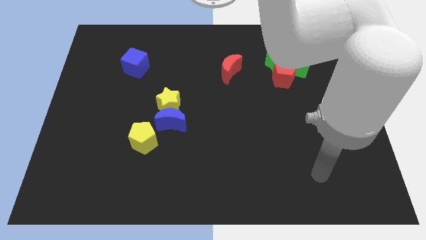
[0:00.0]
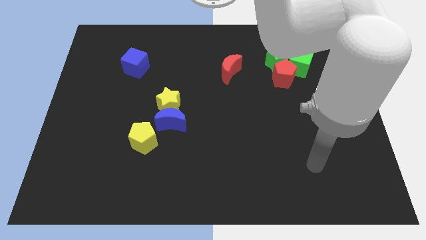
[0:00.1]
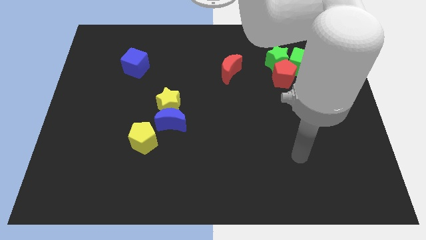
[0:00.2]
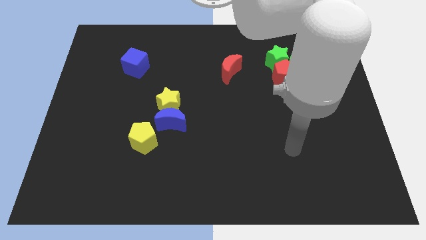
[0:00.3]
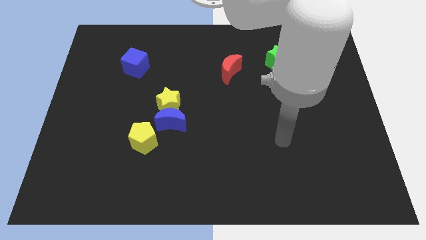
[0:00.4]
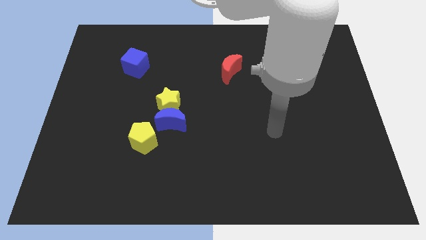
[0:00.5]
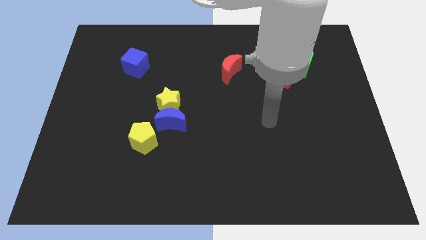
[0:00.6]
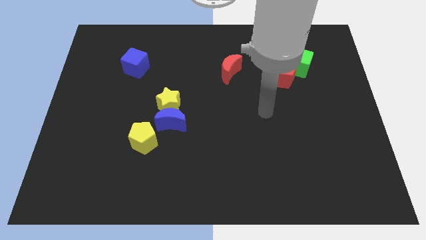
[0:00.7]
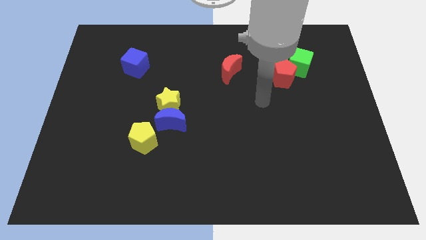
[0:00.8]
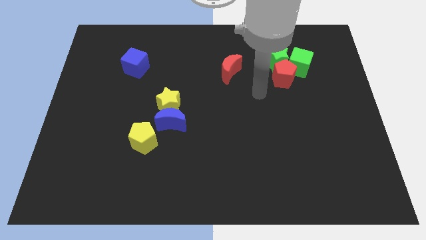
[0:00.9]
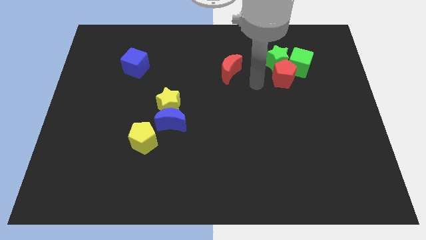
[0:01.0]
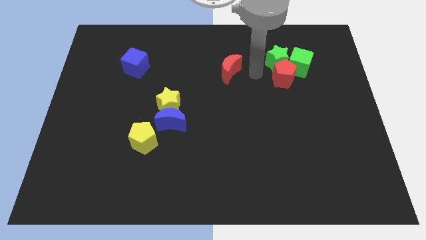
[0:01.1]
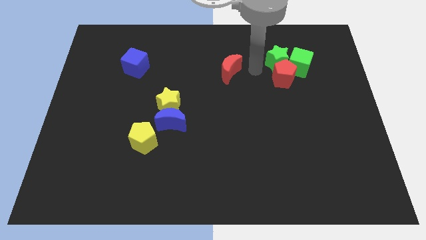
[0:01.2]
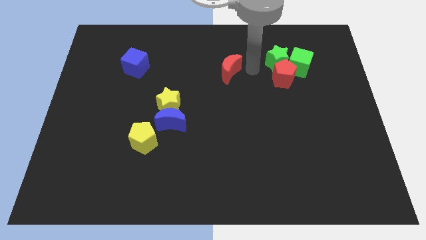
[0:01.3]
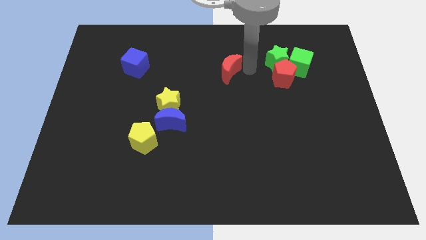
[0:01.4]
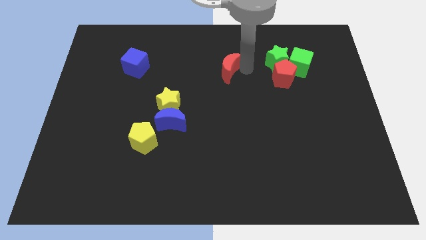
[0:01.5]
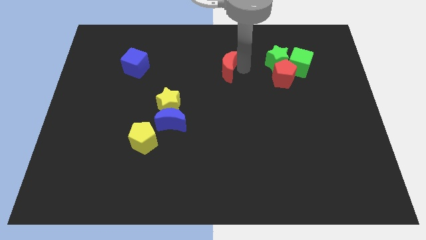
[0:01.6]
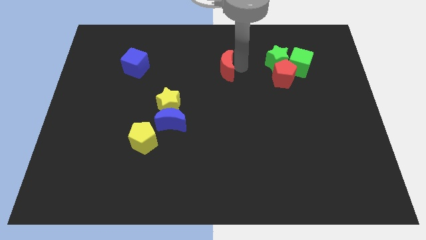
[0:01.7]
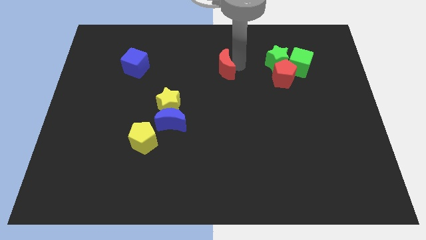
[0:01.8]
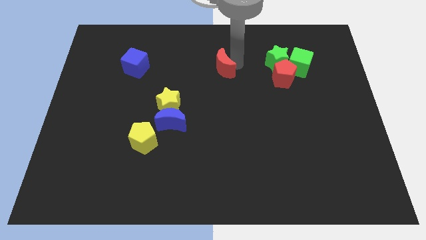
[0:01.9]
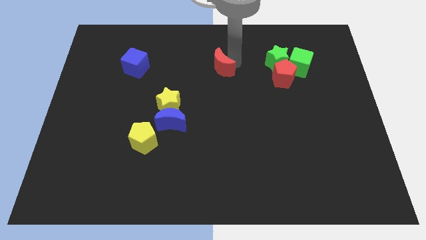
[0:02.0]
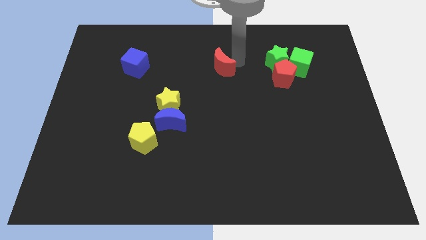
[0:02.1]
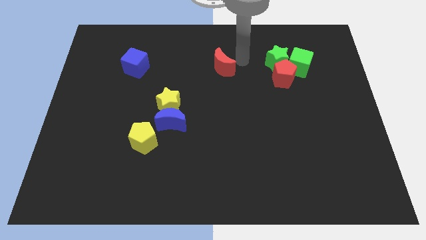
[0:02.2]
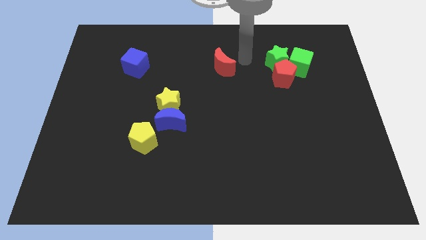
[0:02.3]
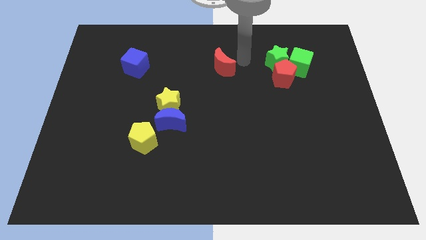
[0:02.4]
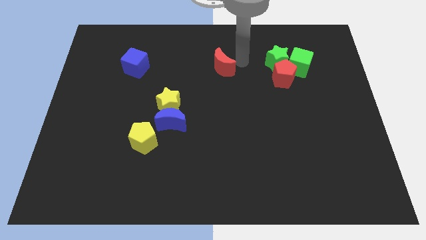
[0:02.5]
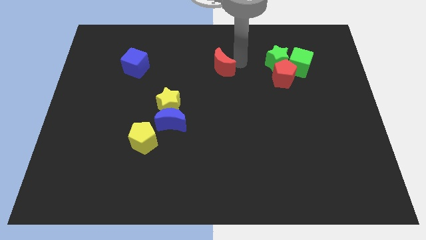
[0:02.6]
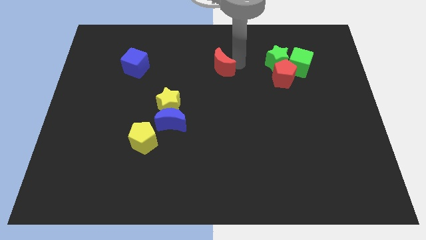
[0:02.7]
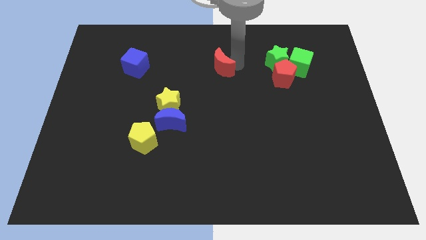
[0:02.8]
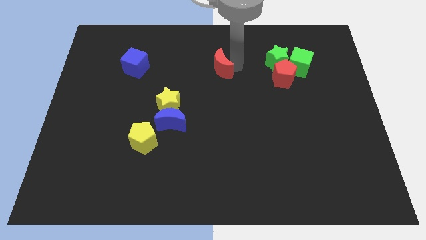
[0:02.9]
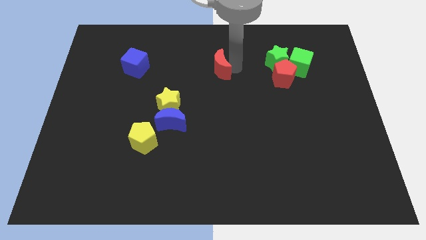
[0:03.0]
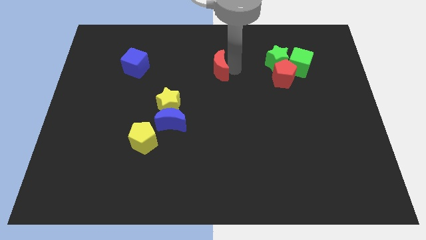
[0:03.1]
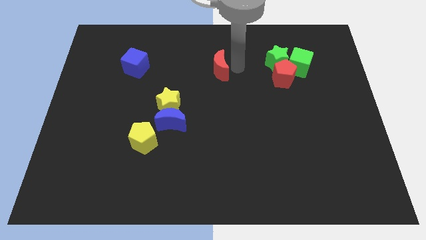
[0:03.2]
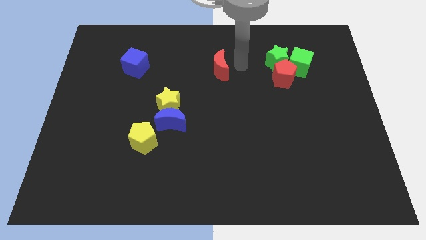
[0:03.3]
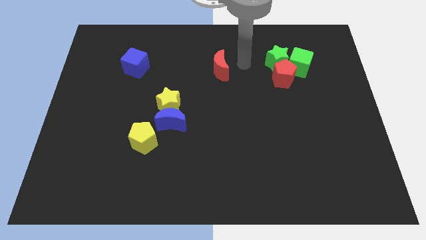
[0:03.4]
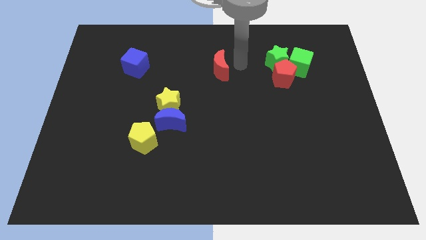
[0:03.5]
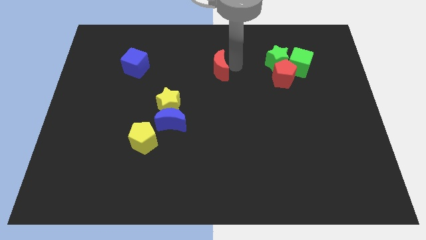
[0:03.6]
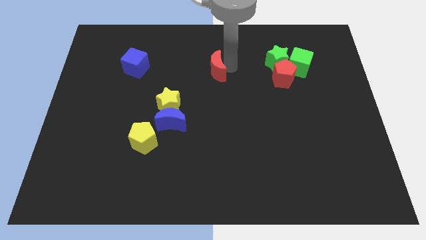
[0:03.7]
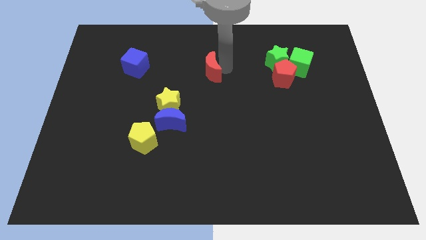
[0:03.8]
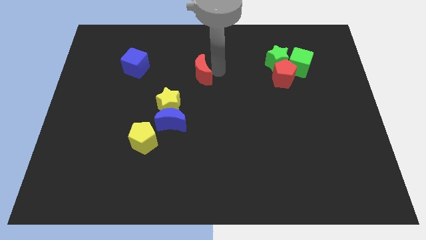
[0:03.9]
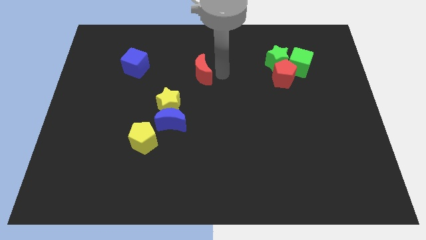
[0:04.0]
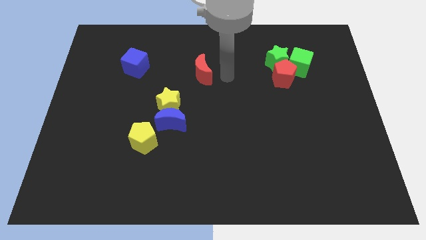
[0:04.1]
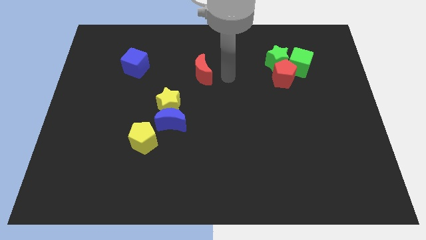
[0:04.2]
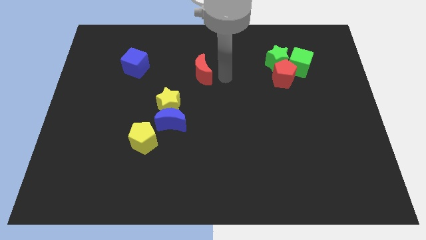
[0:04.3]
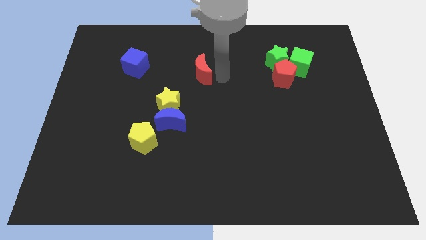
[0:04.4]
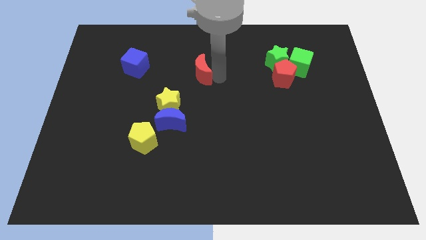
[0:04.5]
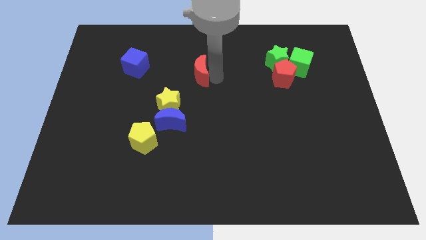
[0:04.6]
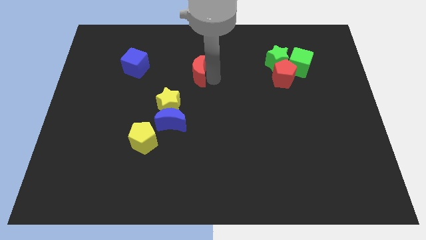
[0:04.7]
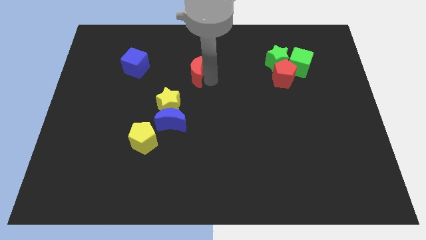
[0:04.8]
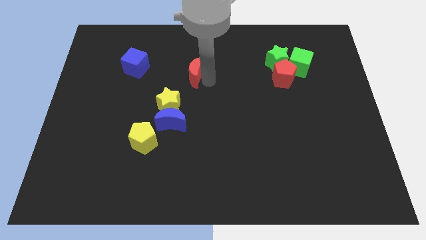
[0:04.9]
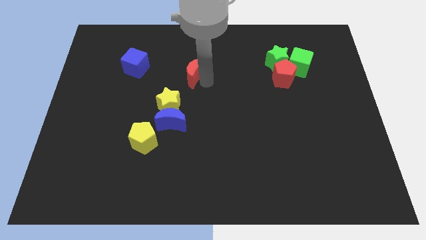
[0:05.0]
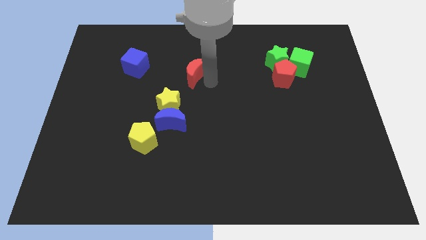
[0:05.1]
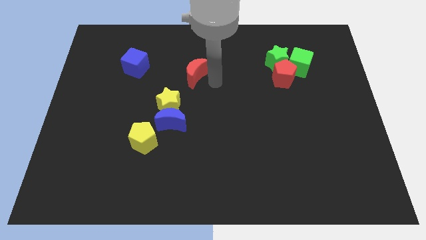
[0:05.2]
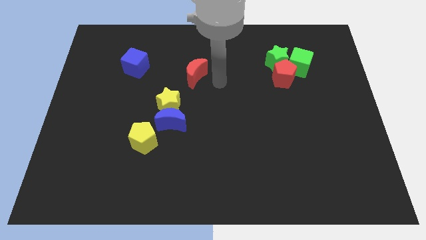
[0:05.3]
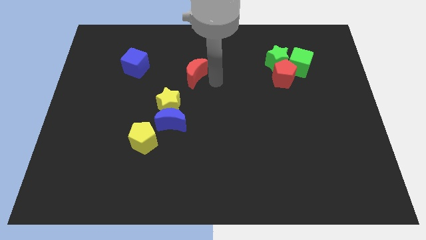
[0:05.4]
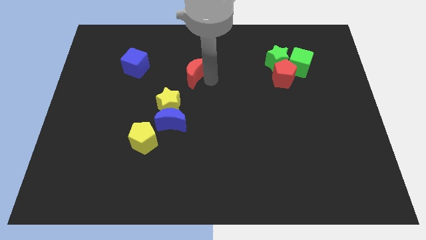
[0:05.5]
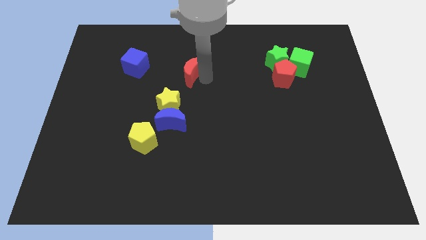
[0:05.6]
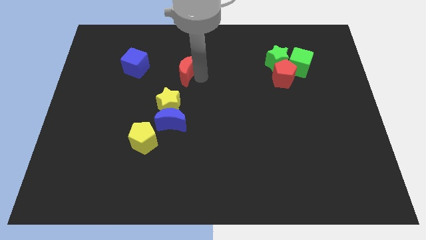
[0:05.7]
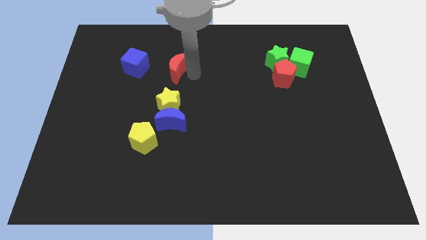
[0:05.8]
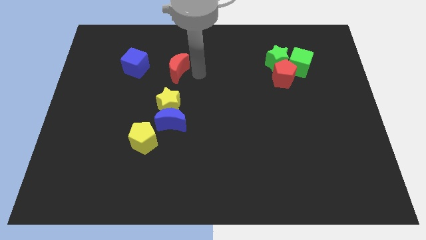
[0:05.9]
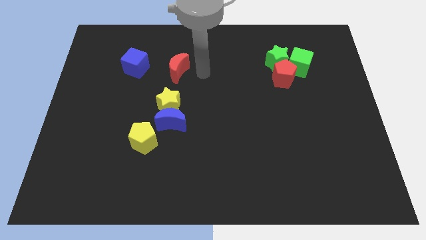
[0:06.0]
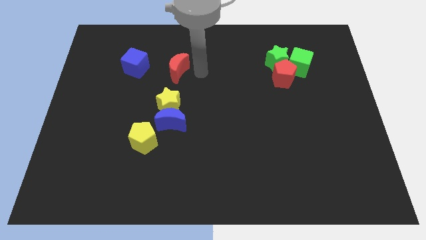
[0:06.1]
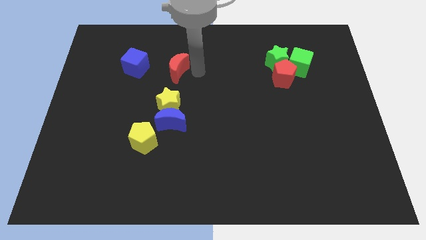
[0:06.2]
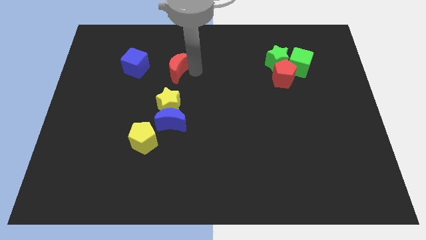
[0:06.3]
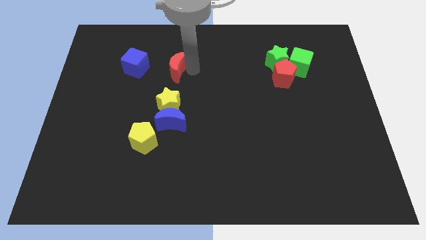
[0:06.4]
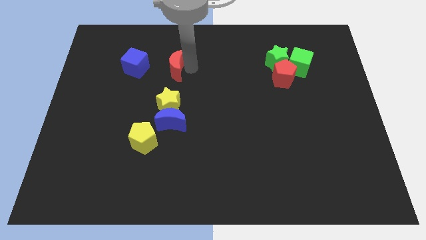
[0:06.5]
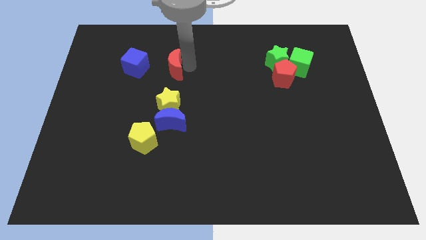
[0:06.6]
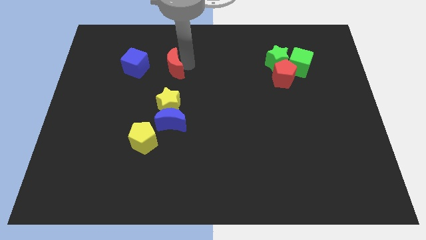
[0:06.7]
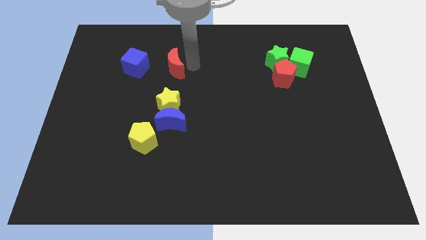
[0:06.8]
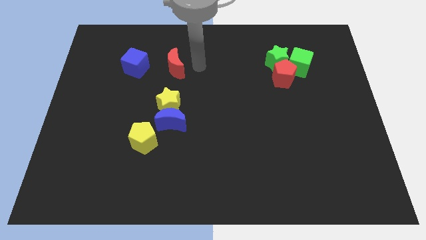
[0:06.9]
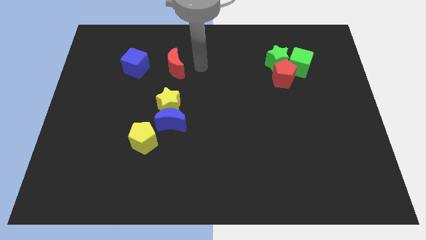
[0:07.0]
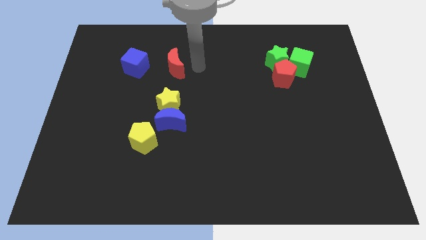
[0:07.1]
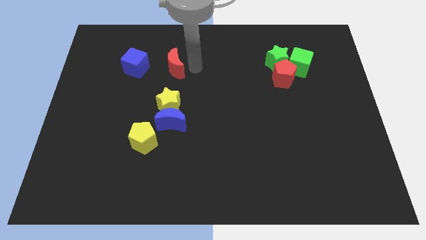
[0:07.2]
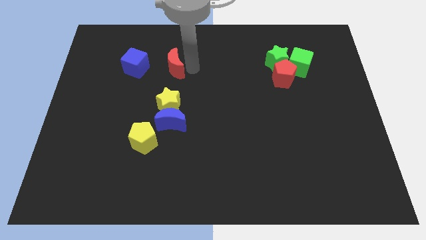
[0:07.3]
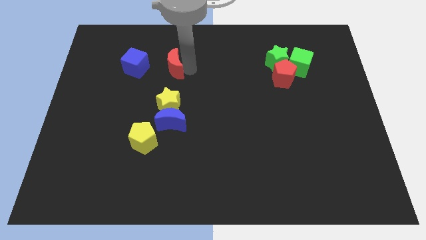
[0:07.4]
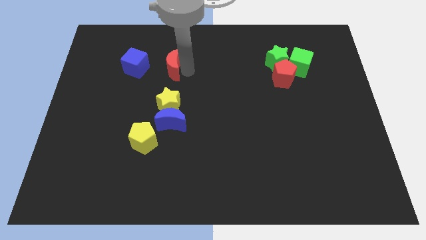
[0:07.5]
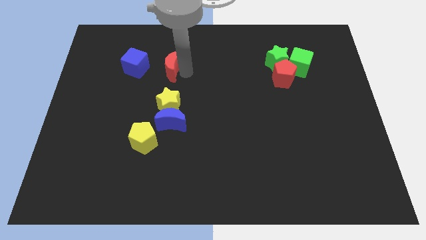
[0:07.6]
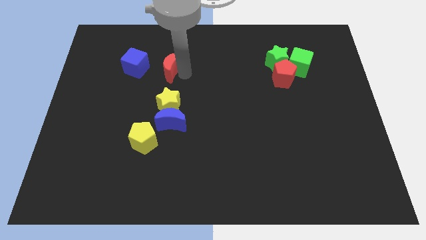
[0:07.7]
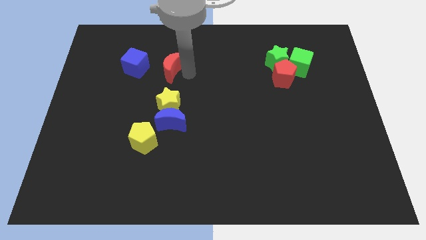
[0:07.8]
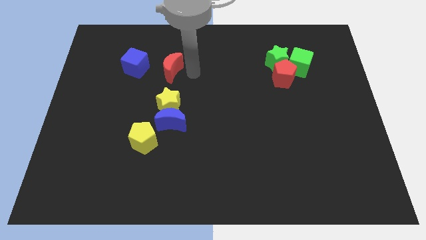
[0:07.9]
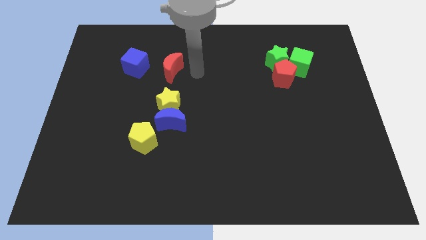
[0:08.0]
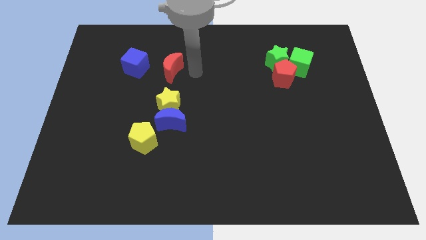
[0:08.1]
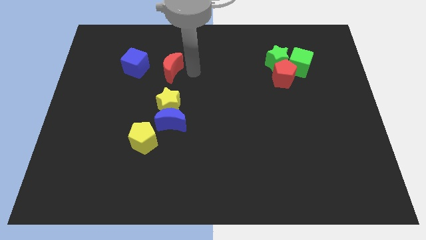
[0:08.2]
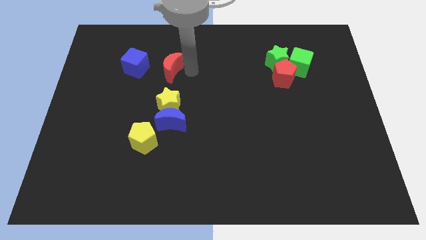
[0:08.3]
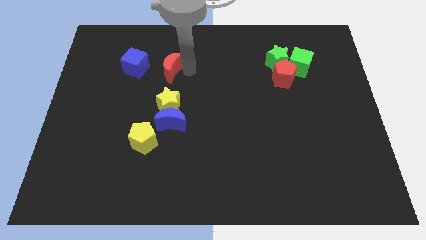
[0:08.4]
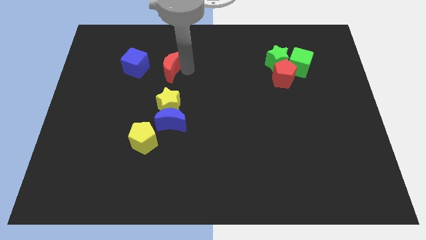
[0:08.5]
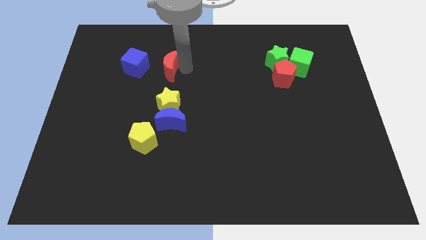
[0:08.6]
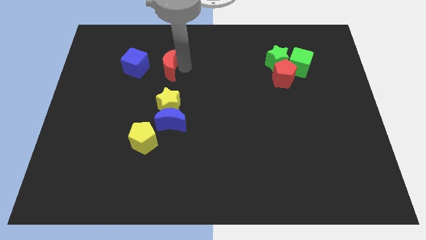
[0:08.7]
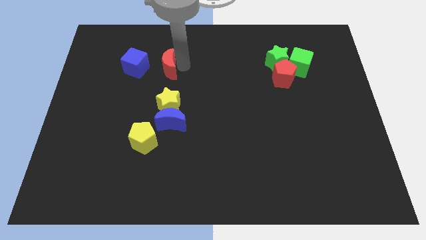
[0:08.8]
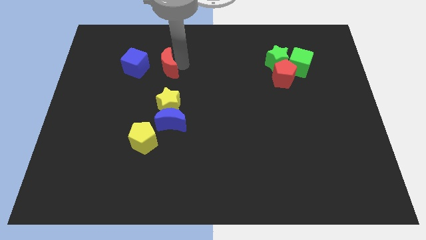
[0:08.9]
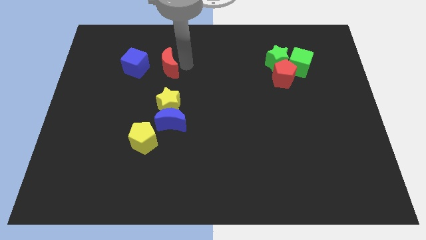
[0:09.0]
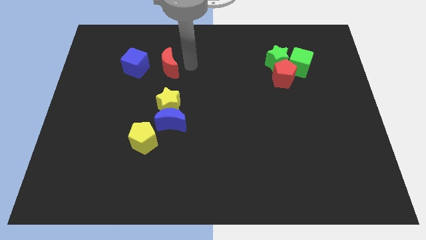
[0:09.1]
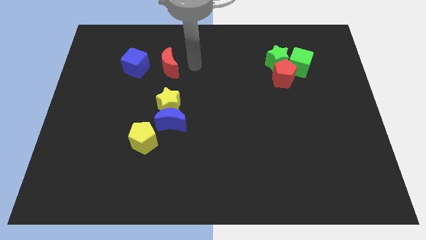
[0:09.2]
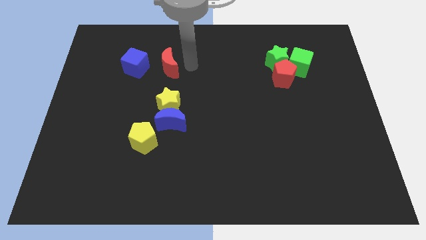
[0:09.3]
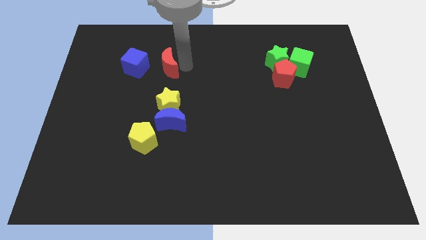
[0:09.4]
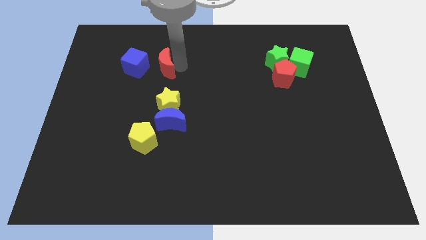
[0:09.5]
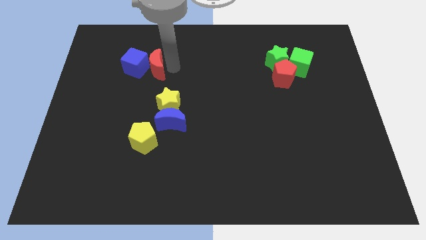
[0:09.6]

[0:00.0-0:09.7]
put the red moon to the blue cube
